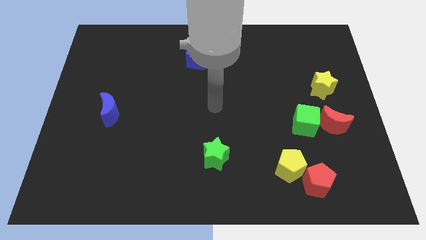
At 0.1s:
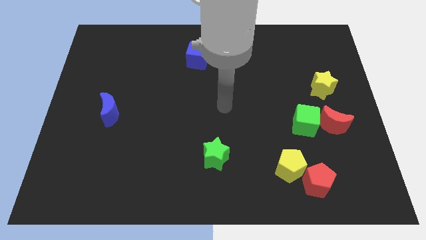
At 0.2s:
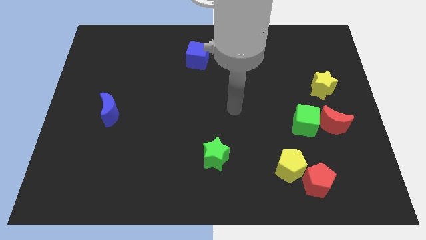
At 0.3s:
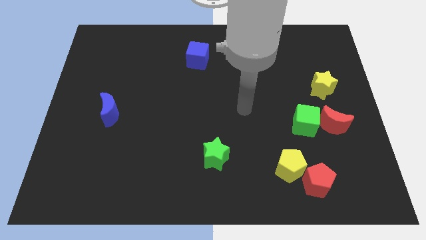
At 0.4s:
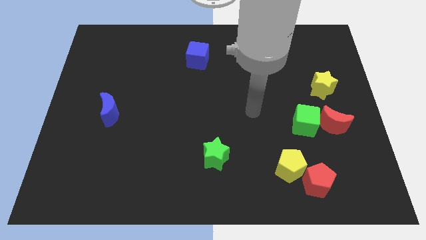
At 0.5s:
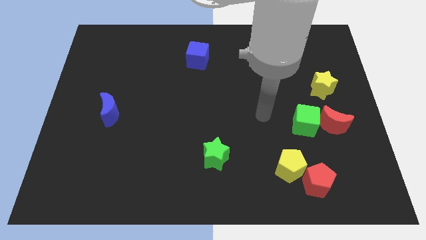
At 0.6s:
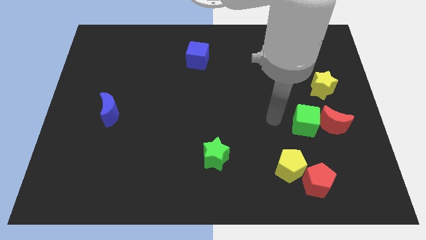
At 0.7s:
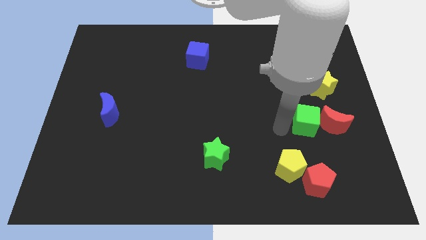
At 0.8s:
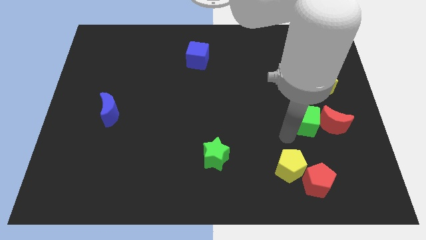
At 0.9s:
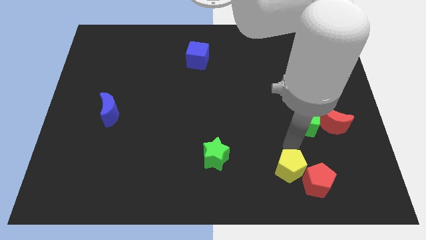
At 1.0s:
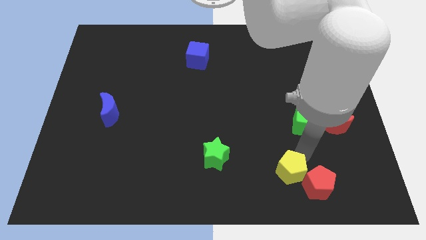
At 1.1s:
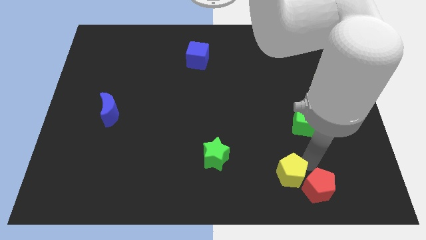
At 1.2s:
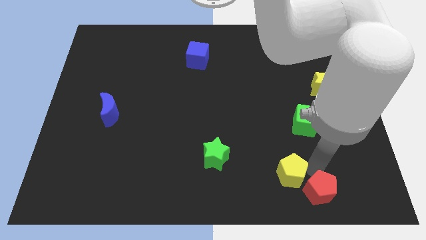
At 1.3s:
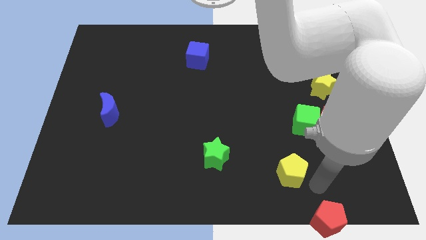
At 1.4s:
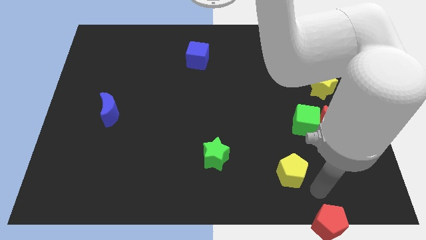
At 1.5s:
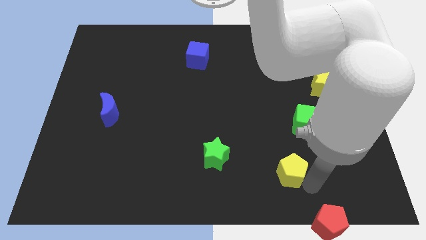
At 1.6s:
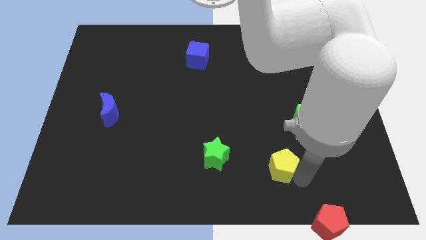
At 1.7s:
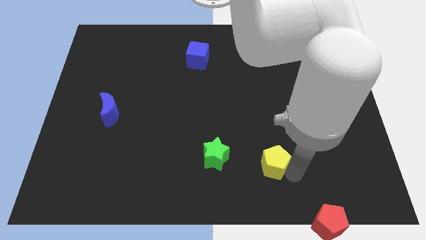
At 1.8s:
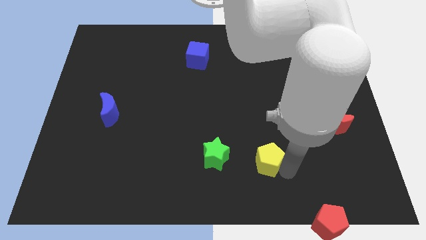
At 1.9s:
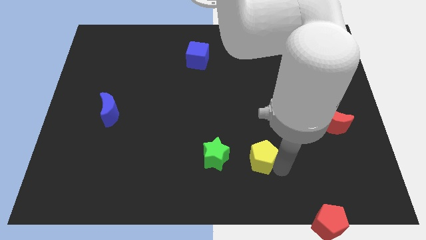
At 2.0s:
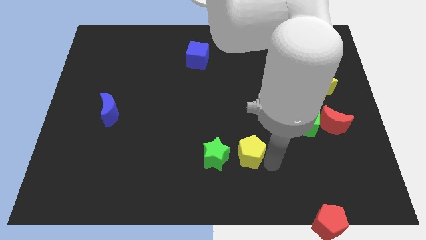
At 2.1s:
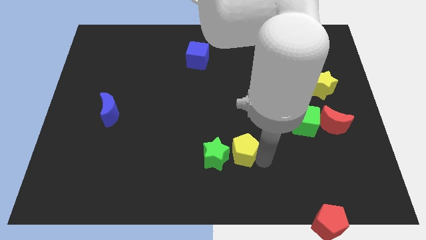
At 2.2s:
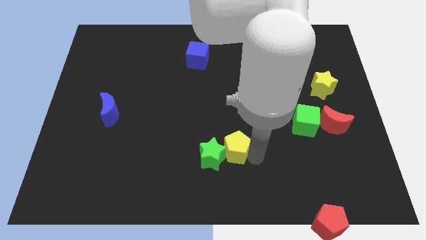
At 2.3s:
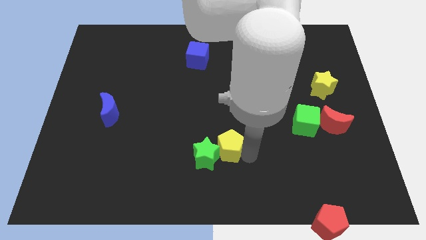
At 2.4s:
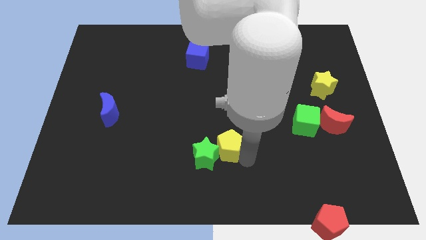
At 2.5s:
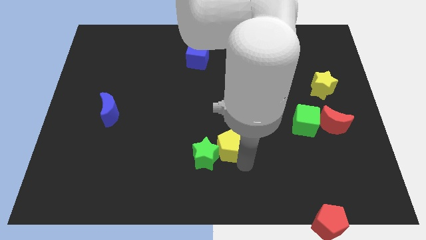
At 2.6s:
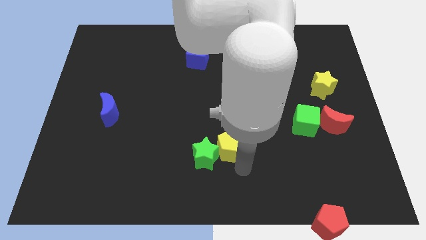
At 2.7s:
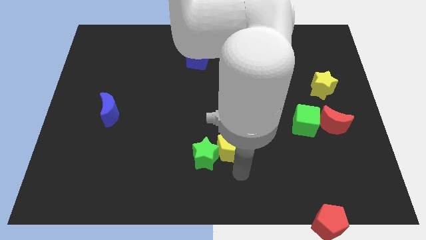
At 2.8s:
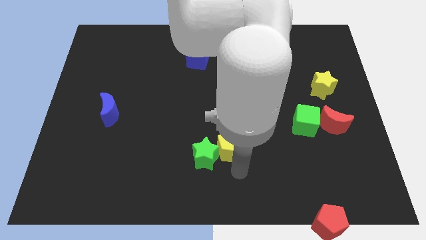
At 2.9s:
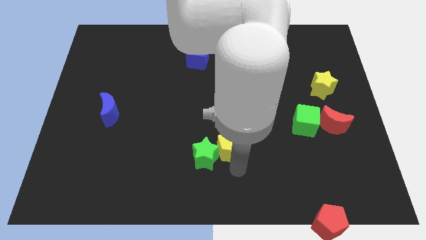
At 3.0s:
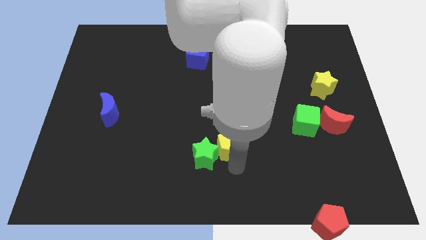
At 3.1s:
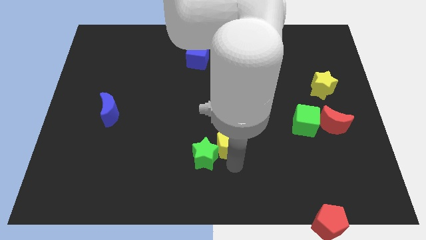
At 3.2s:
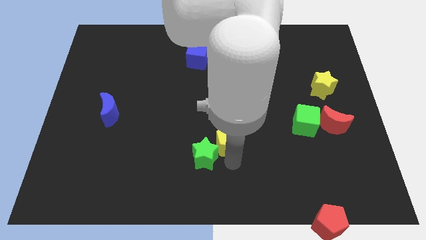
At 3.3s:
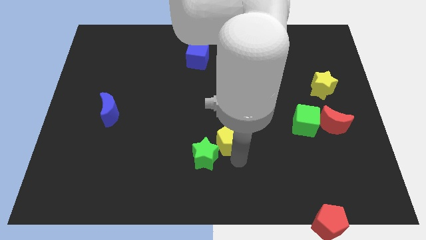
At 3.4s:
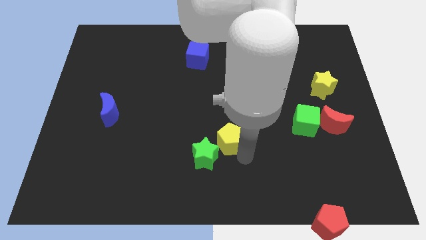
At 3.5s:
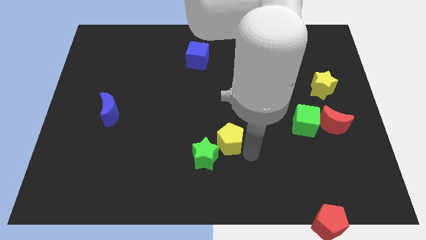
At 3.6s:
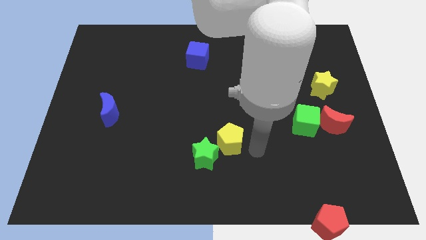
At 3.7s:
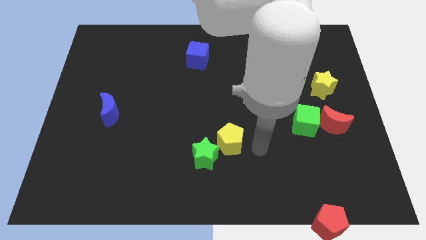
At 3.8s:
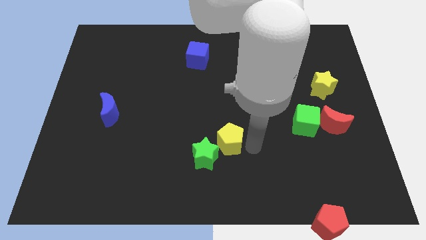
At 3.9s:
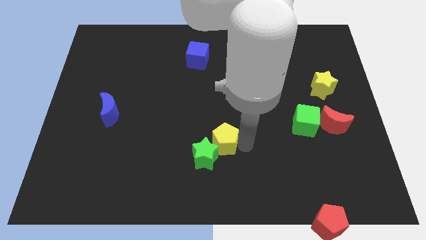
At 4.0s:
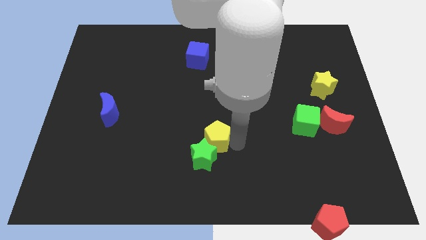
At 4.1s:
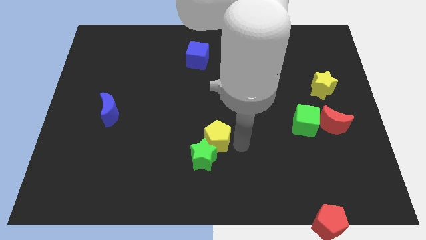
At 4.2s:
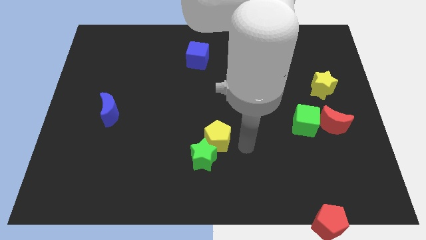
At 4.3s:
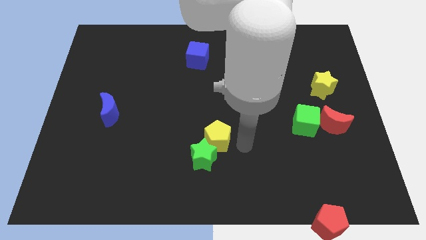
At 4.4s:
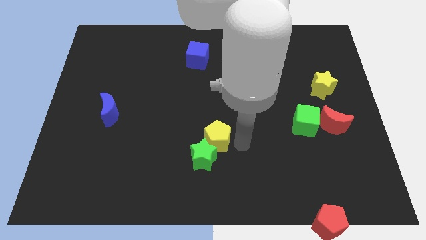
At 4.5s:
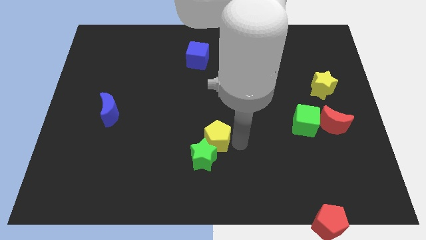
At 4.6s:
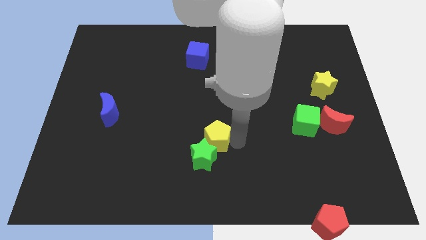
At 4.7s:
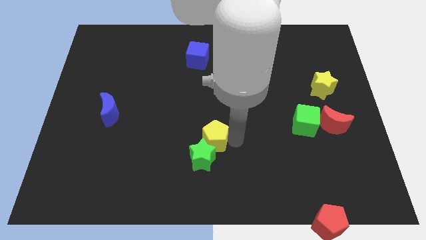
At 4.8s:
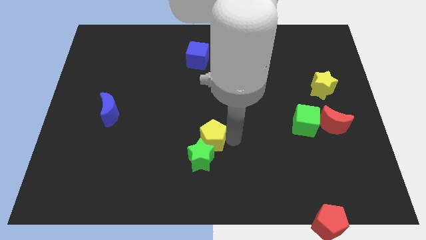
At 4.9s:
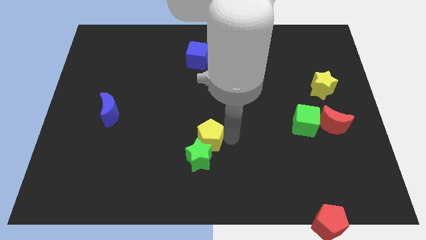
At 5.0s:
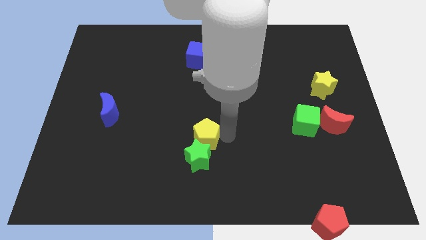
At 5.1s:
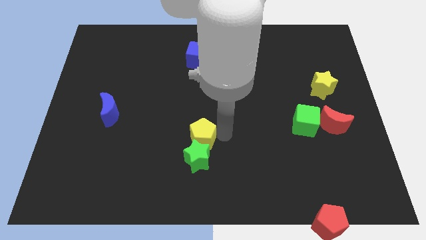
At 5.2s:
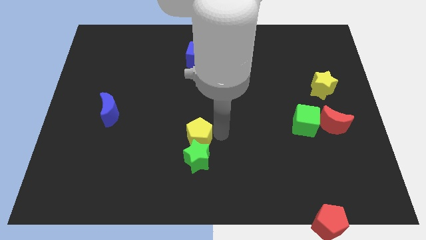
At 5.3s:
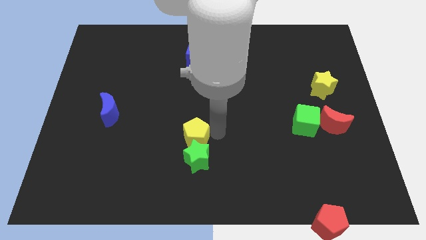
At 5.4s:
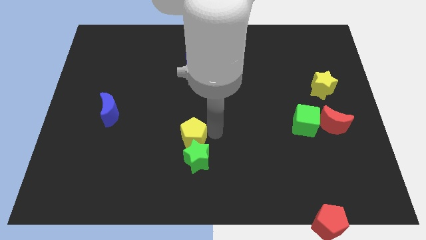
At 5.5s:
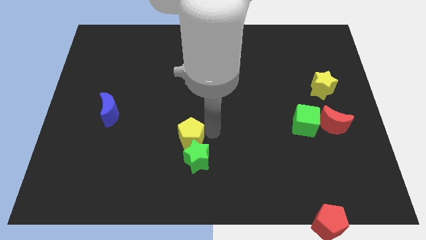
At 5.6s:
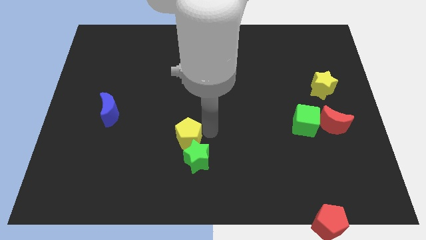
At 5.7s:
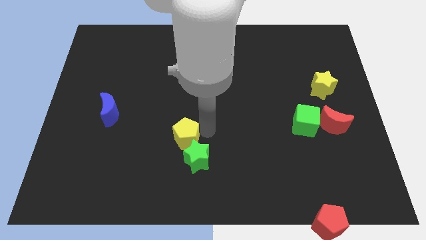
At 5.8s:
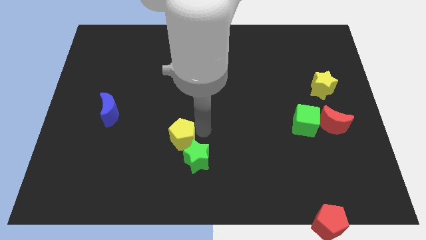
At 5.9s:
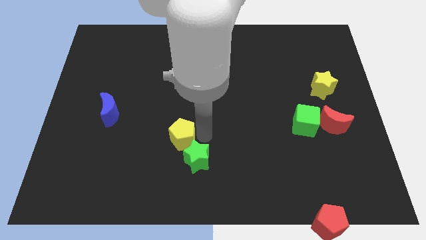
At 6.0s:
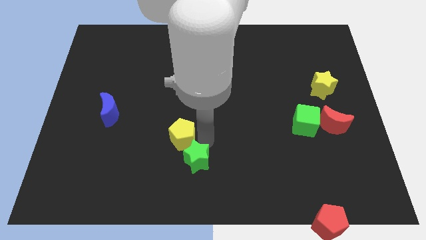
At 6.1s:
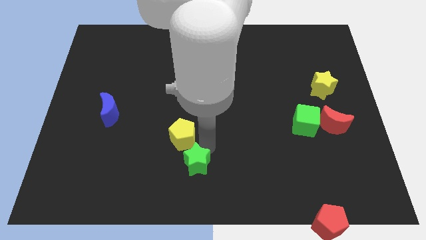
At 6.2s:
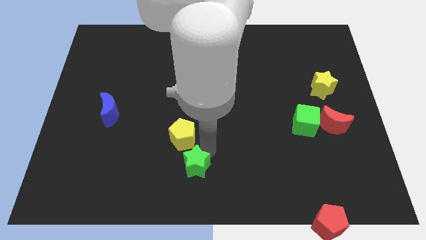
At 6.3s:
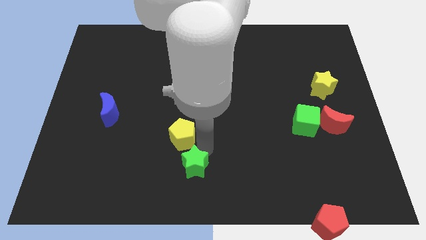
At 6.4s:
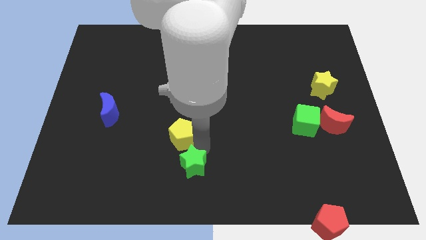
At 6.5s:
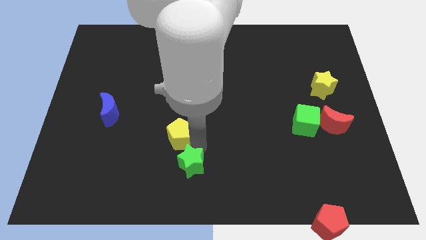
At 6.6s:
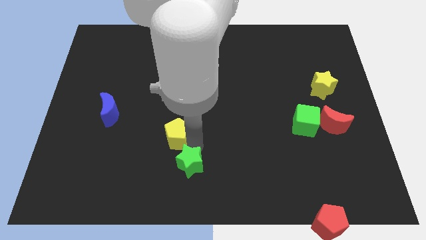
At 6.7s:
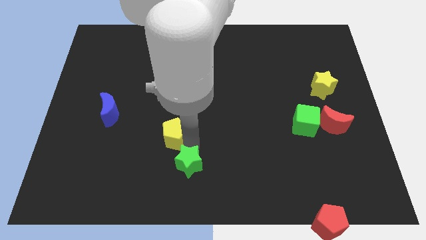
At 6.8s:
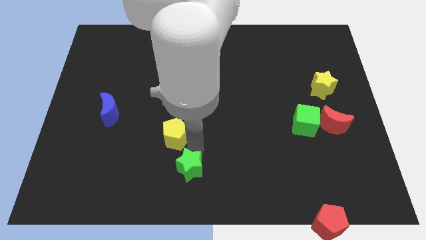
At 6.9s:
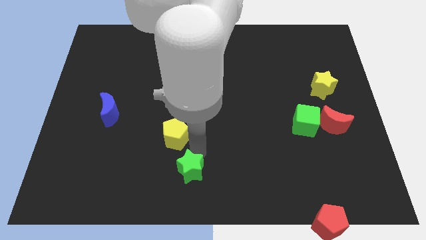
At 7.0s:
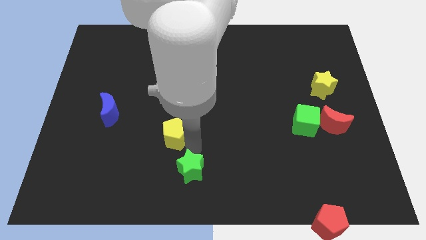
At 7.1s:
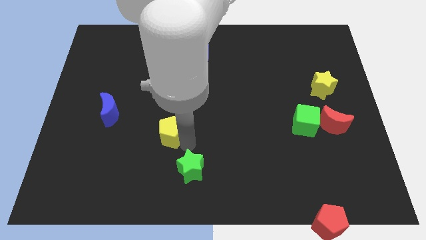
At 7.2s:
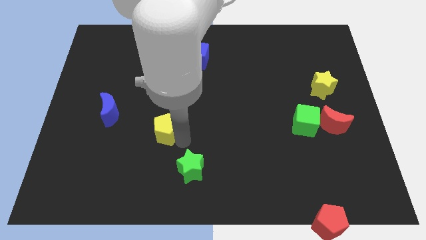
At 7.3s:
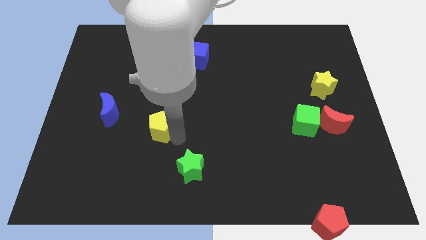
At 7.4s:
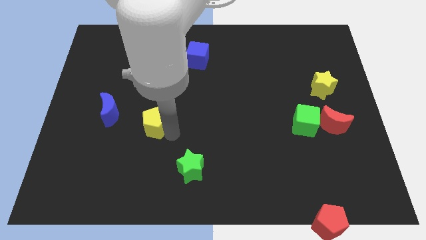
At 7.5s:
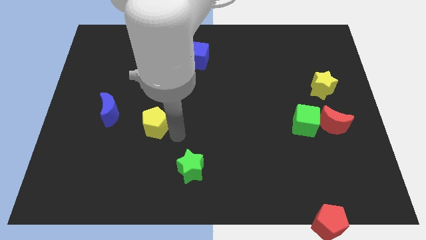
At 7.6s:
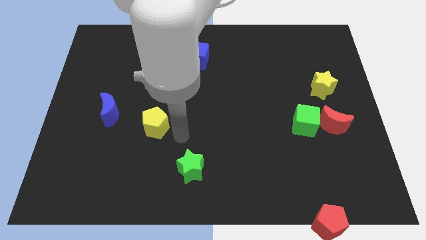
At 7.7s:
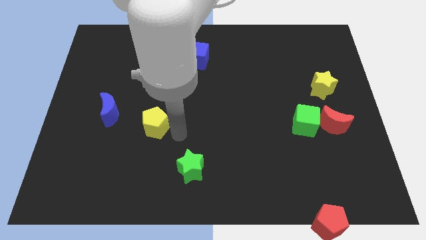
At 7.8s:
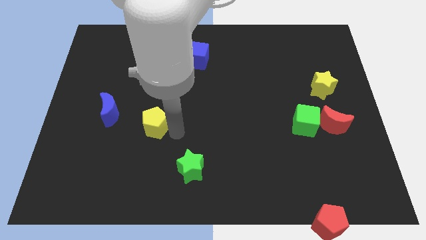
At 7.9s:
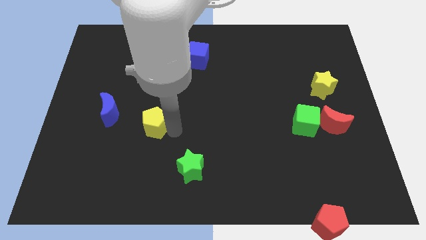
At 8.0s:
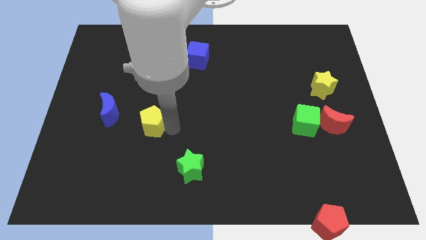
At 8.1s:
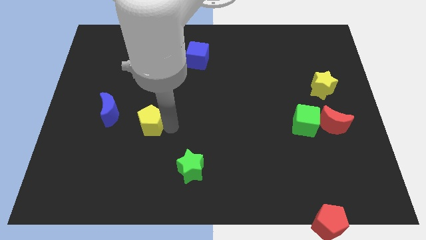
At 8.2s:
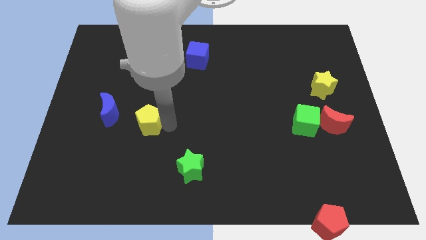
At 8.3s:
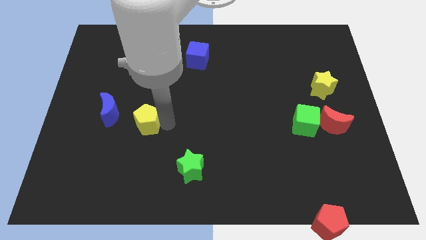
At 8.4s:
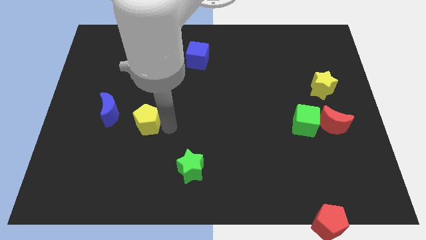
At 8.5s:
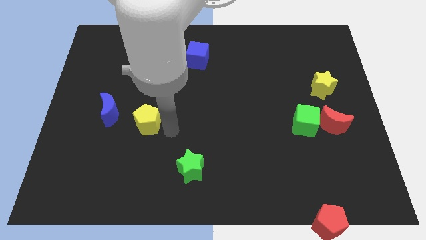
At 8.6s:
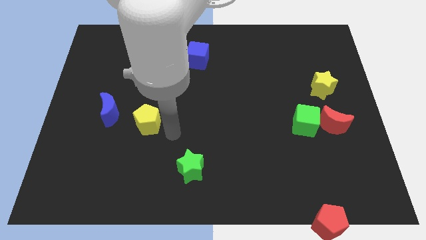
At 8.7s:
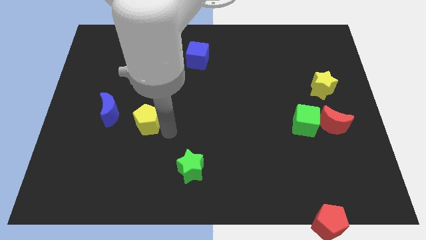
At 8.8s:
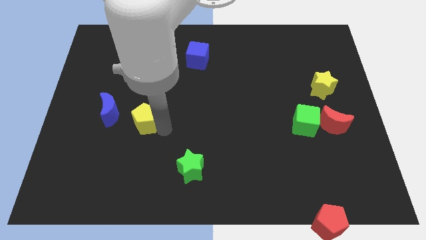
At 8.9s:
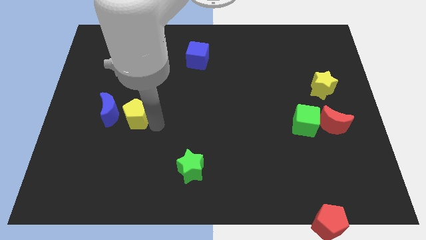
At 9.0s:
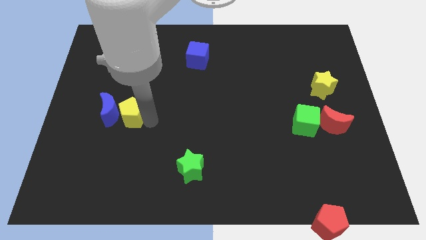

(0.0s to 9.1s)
slide the yellow pentagon next to the blue moon
